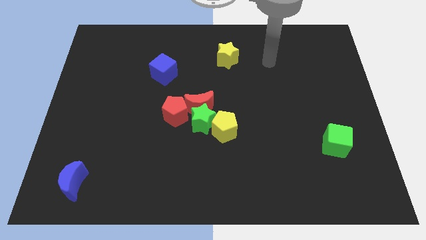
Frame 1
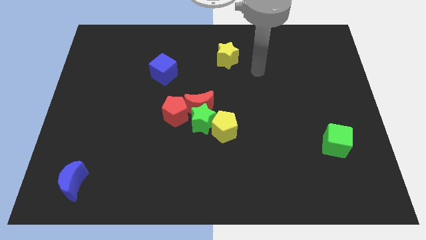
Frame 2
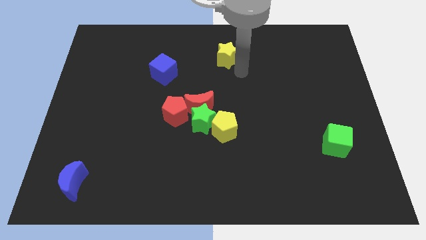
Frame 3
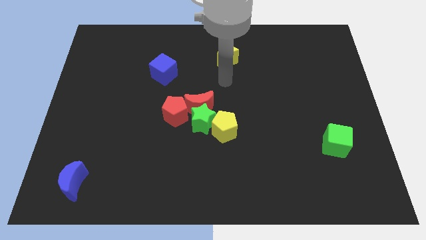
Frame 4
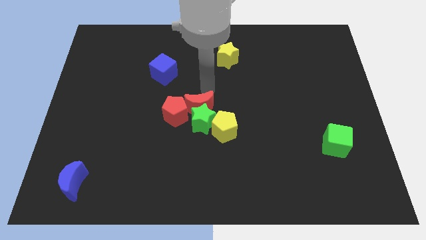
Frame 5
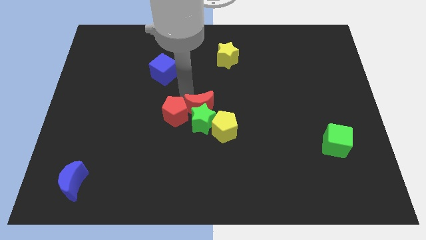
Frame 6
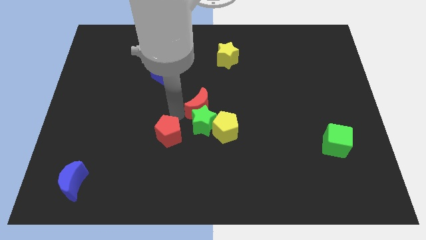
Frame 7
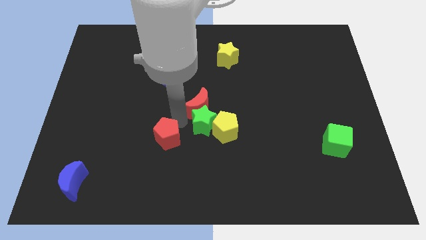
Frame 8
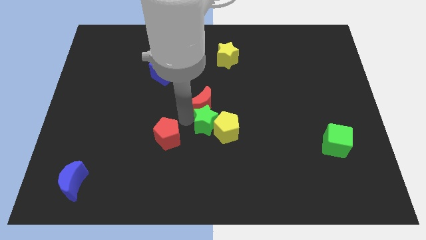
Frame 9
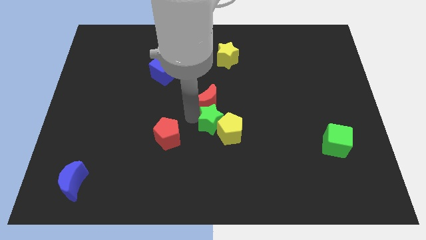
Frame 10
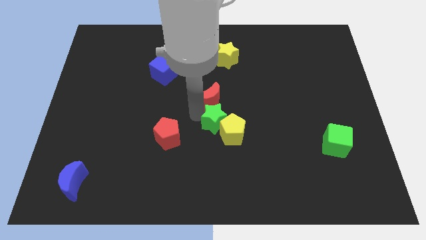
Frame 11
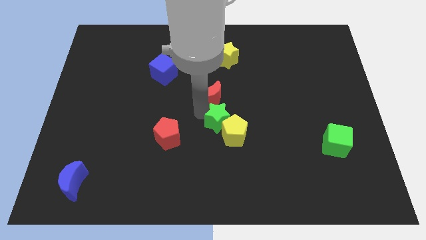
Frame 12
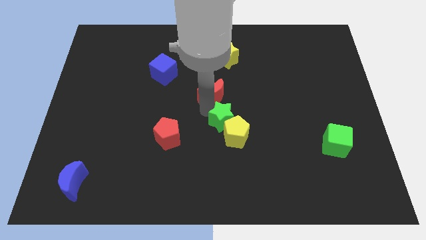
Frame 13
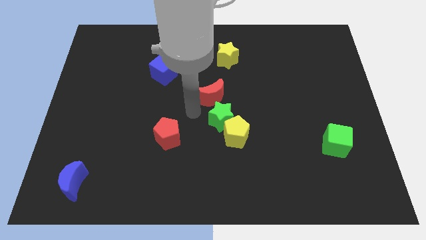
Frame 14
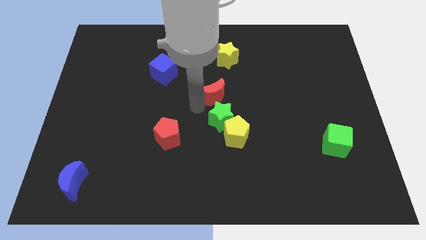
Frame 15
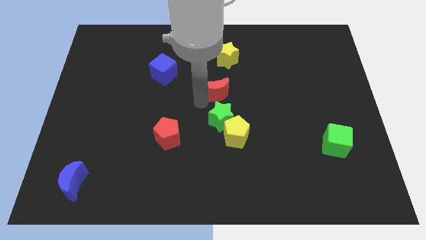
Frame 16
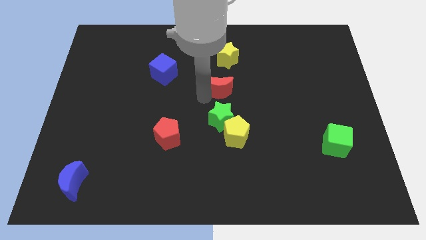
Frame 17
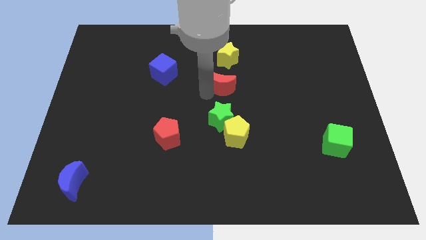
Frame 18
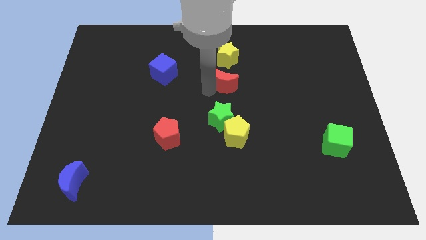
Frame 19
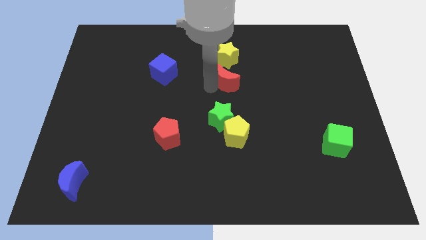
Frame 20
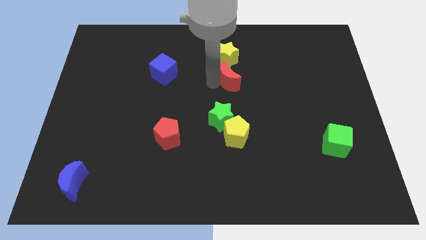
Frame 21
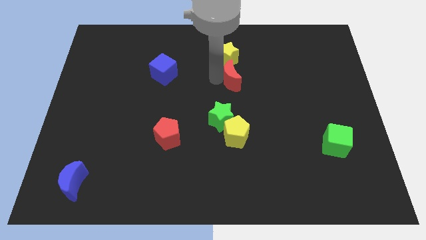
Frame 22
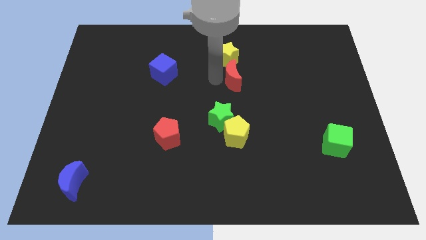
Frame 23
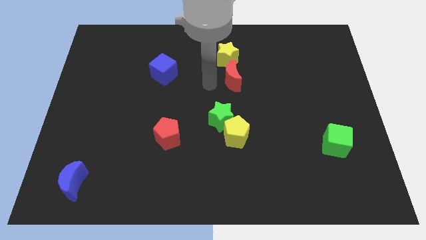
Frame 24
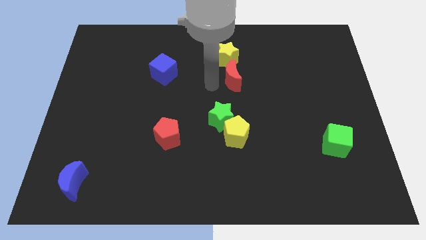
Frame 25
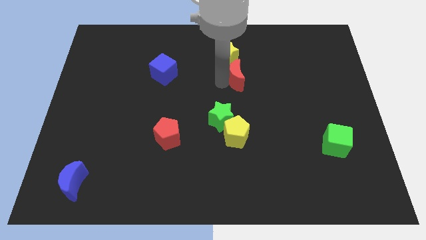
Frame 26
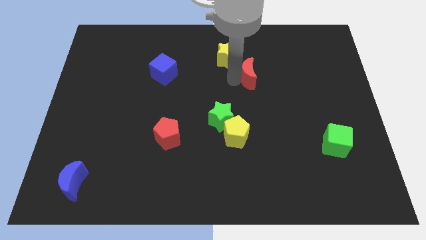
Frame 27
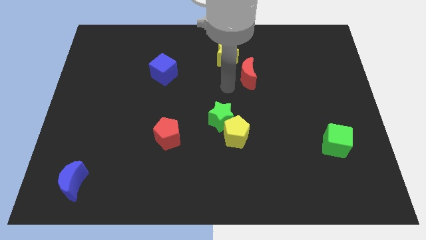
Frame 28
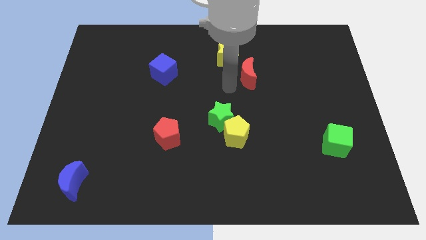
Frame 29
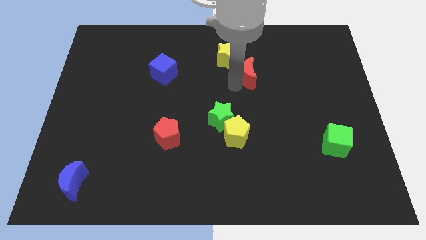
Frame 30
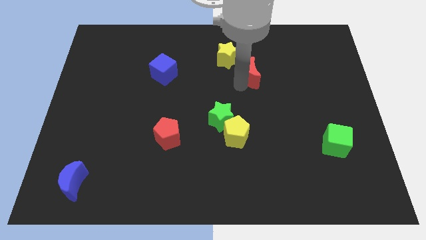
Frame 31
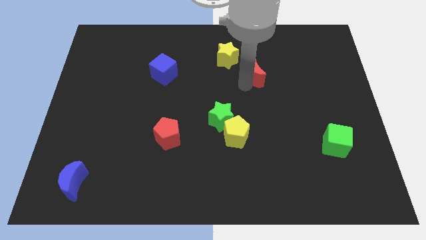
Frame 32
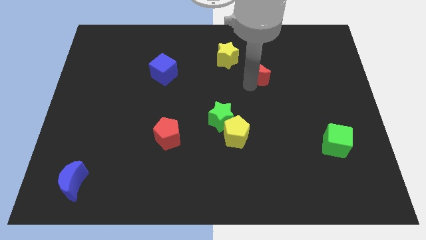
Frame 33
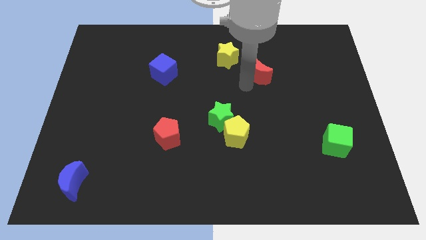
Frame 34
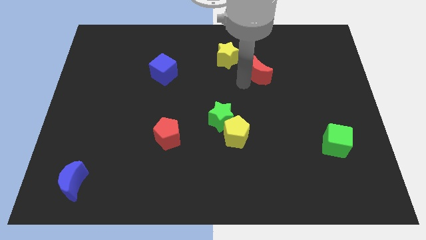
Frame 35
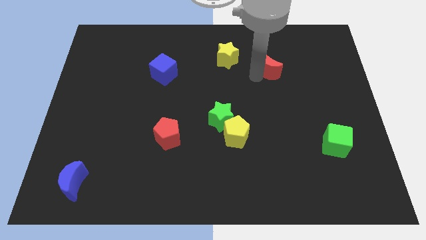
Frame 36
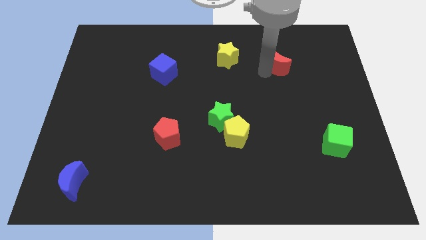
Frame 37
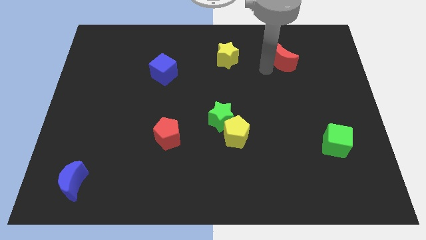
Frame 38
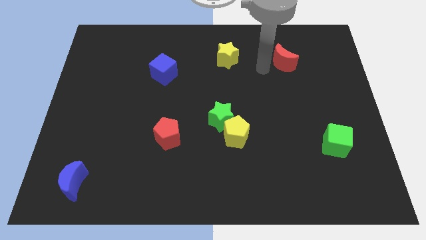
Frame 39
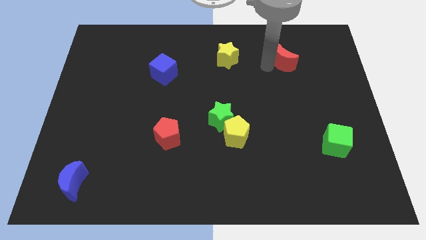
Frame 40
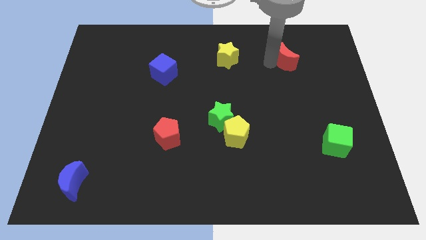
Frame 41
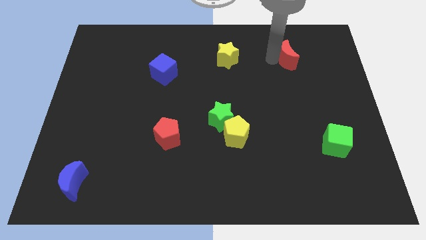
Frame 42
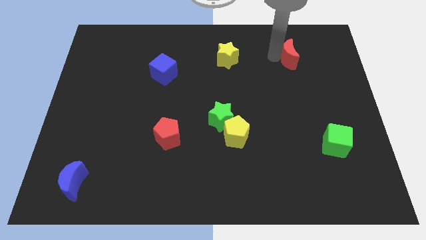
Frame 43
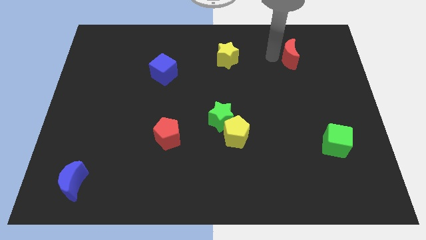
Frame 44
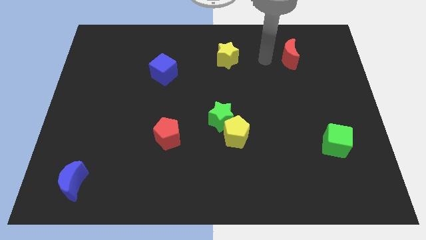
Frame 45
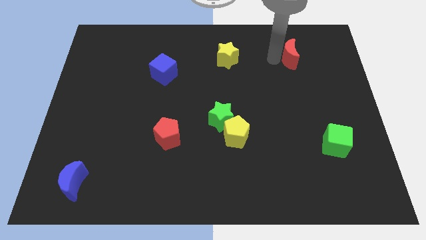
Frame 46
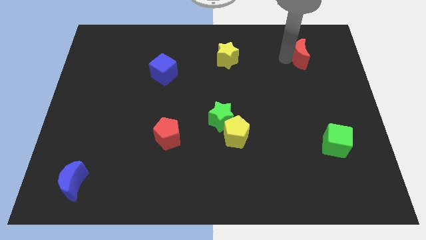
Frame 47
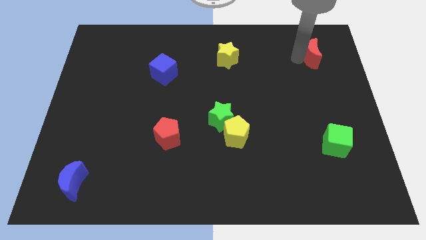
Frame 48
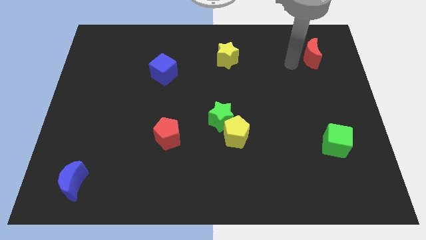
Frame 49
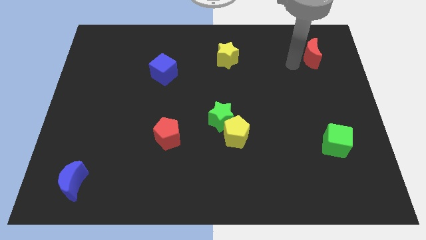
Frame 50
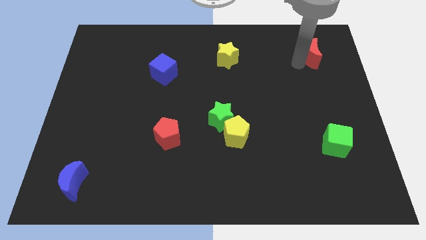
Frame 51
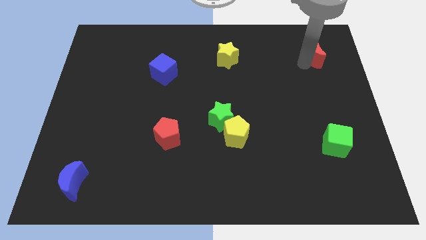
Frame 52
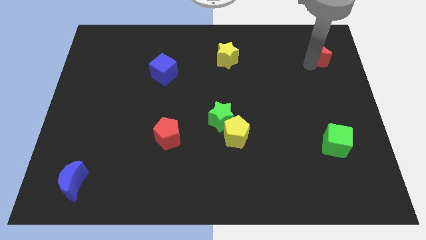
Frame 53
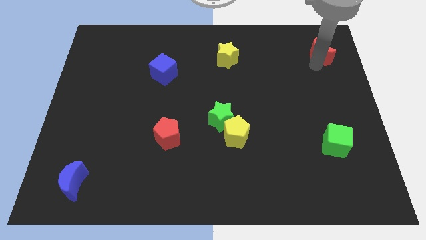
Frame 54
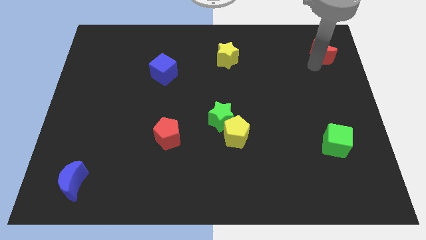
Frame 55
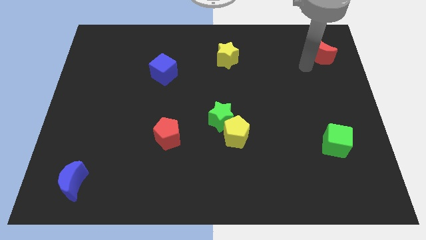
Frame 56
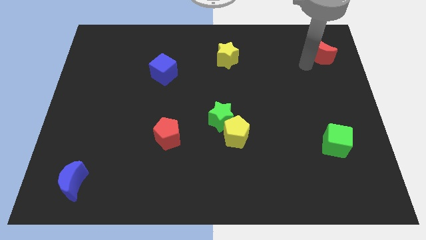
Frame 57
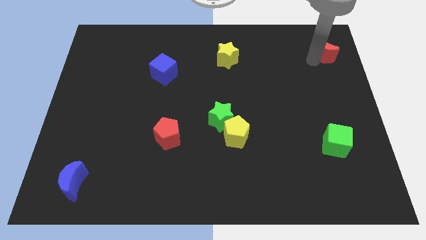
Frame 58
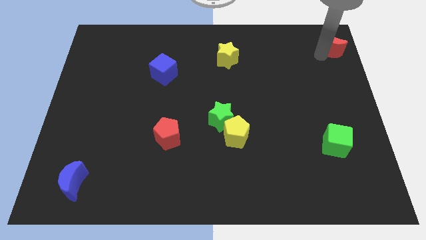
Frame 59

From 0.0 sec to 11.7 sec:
push the red moon to the top right of the board

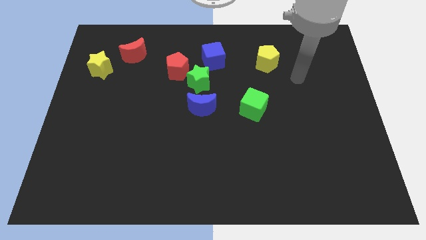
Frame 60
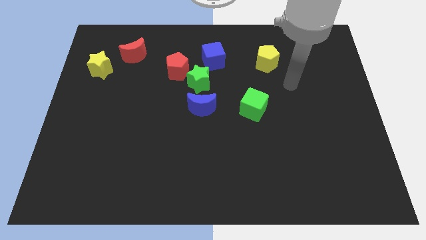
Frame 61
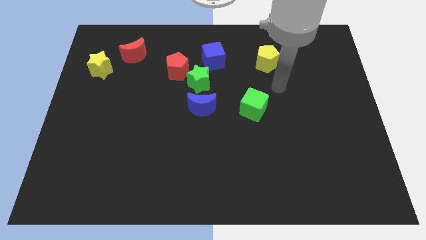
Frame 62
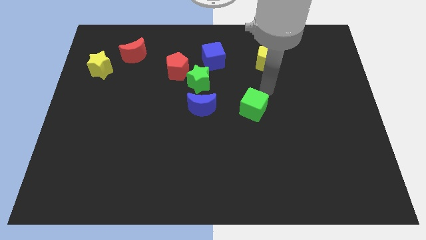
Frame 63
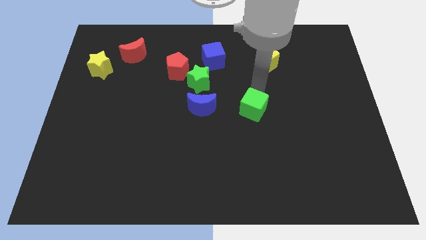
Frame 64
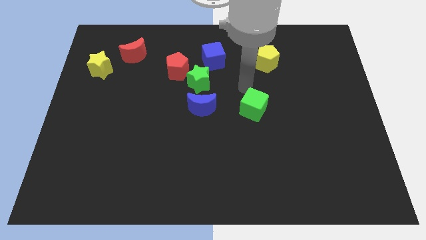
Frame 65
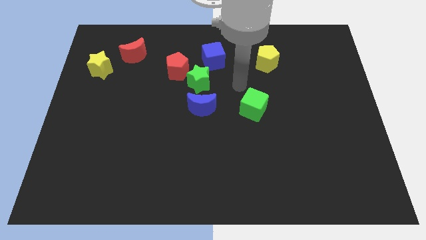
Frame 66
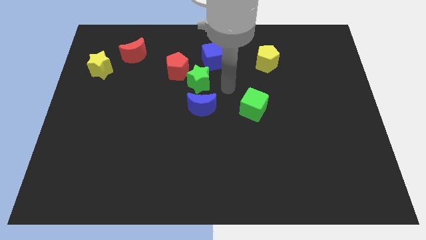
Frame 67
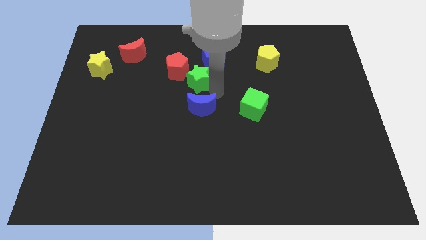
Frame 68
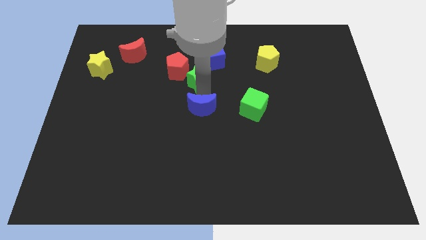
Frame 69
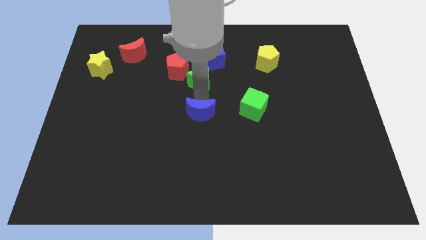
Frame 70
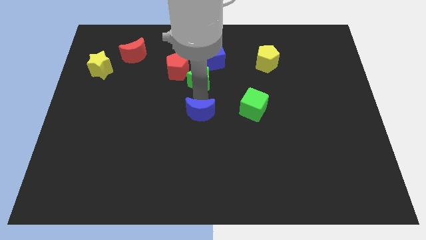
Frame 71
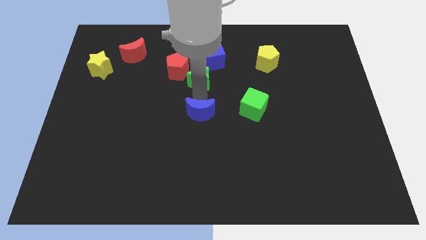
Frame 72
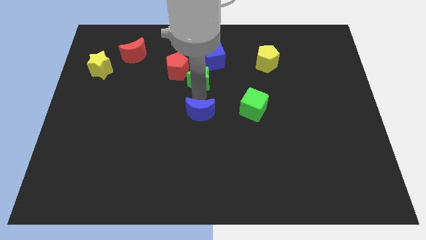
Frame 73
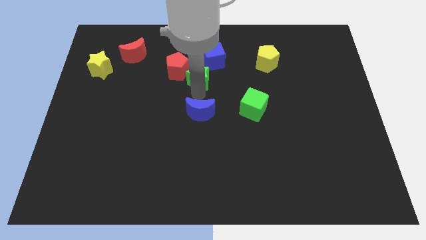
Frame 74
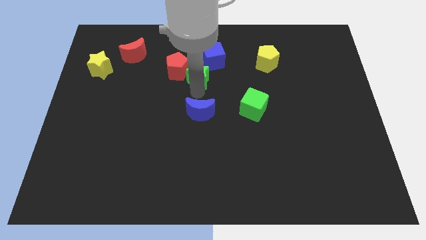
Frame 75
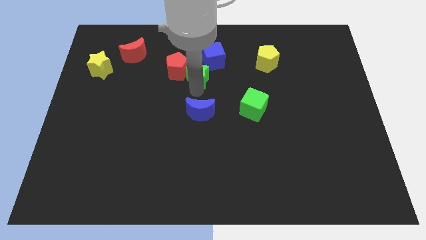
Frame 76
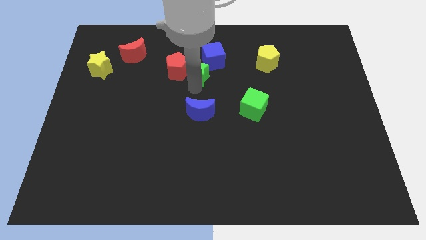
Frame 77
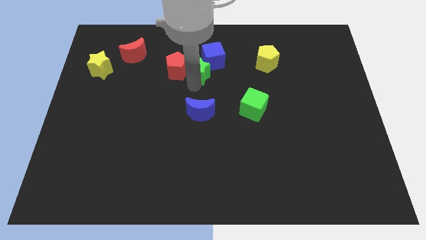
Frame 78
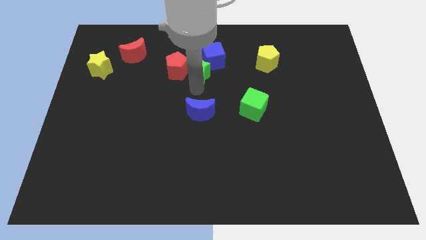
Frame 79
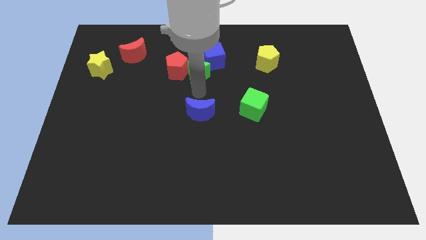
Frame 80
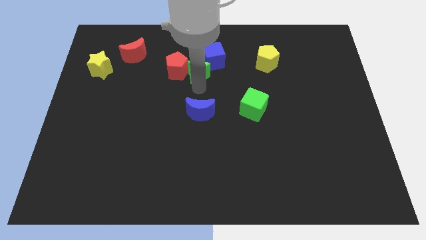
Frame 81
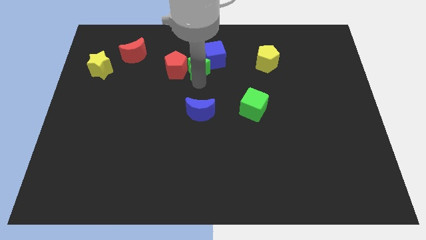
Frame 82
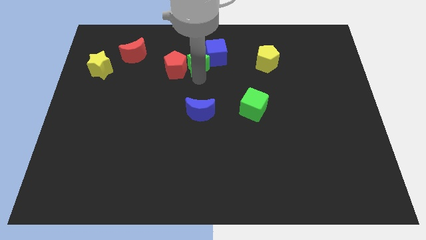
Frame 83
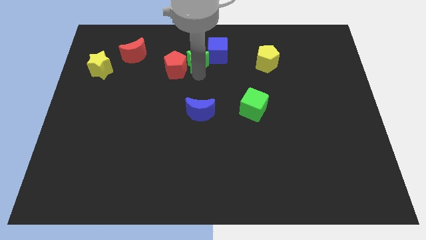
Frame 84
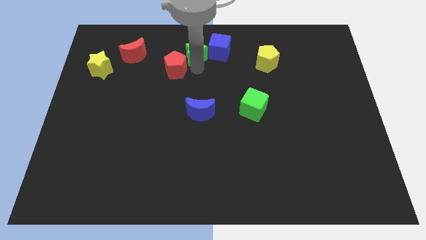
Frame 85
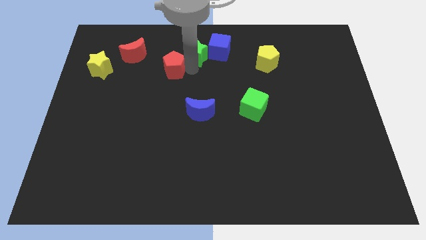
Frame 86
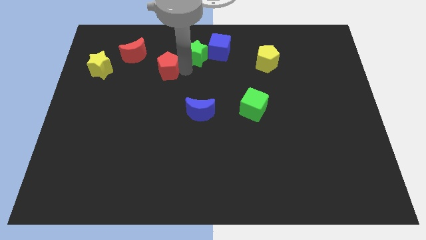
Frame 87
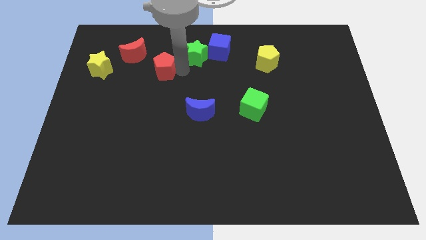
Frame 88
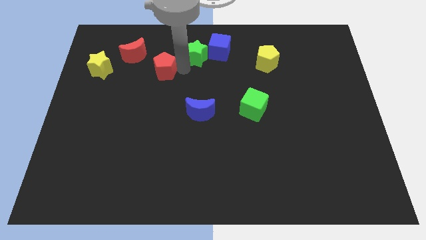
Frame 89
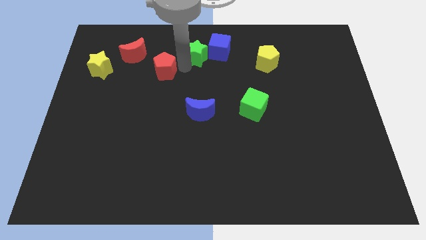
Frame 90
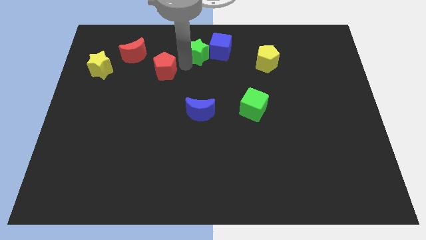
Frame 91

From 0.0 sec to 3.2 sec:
slide the green star to the top
